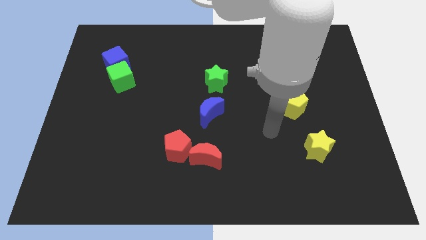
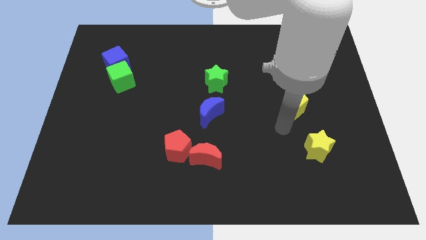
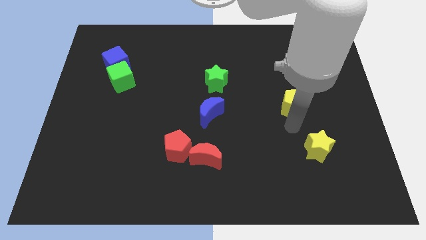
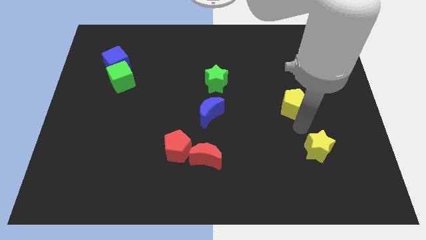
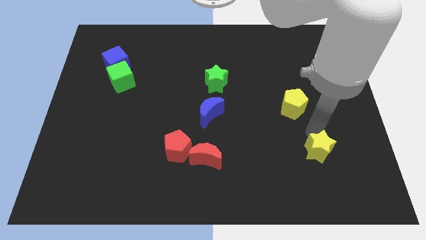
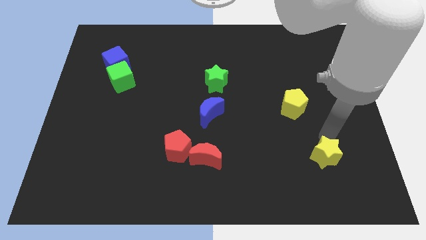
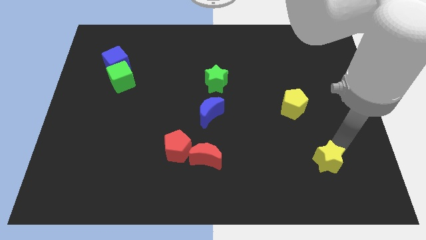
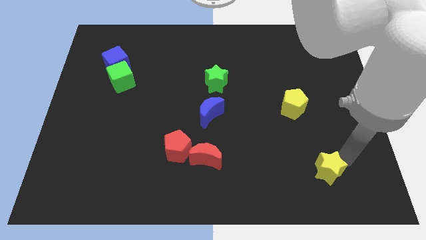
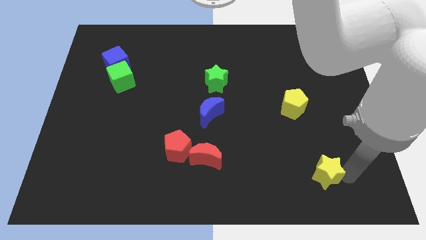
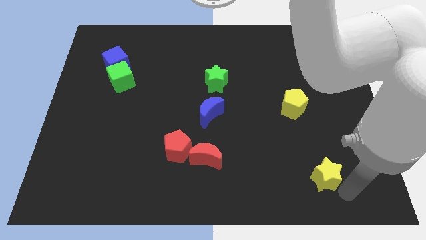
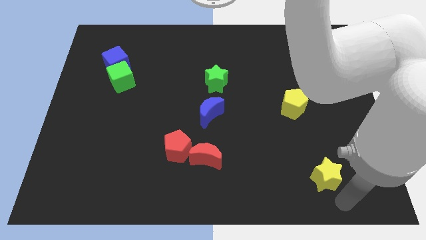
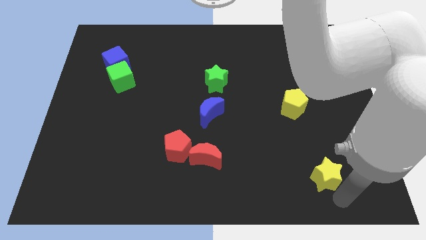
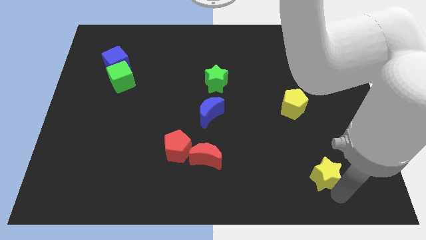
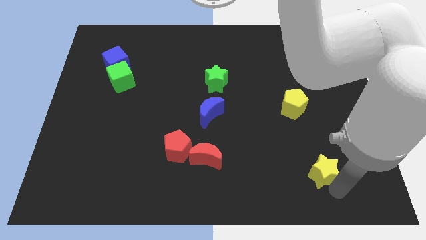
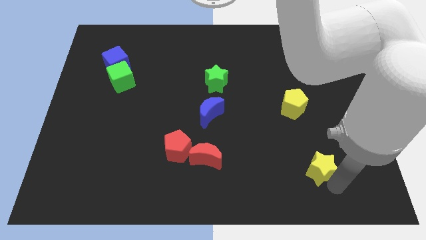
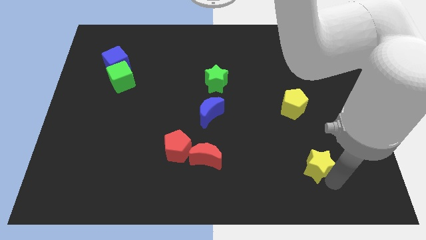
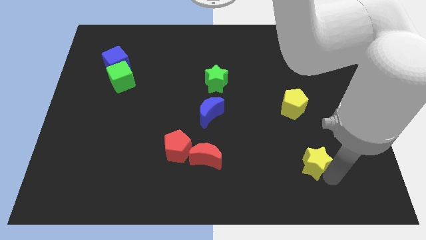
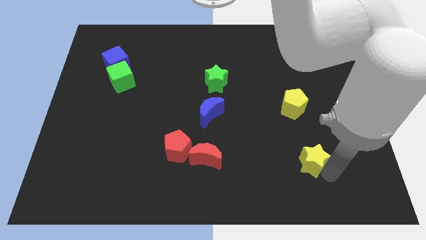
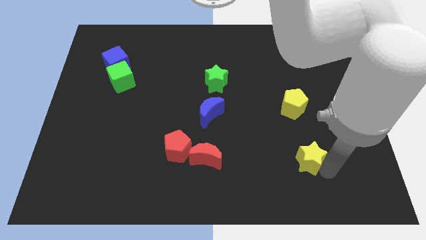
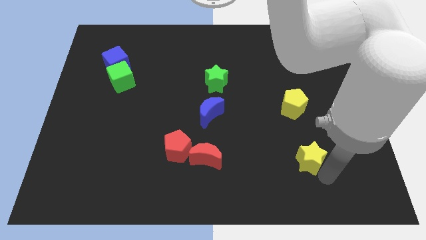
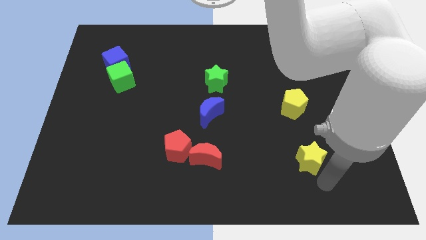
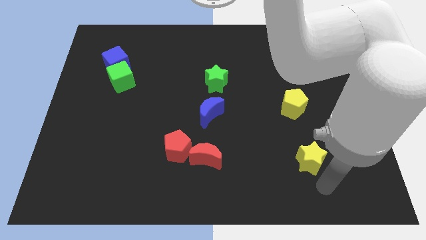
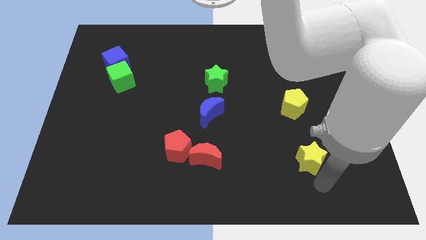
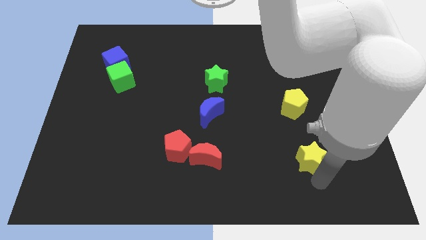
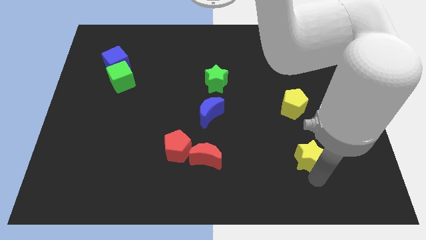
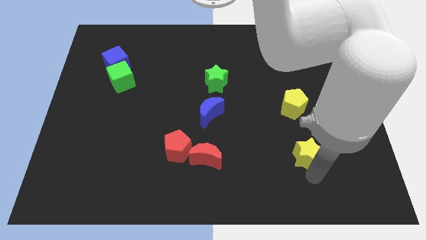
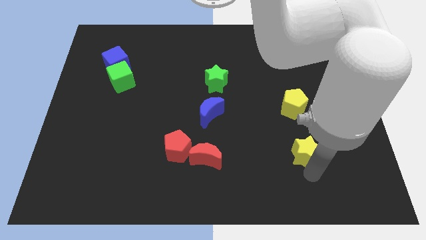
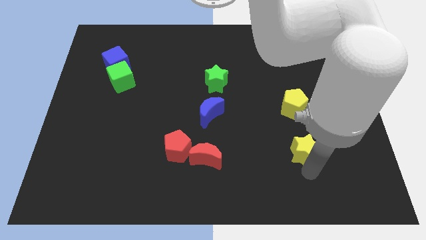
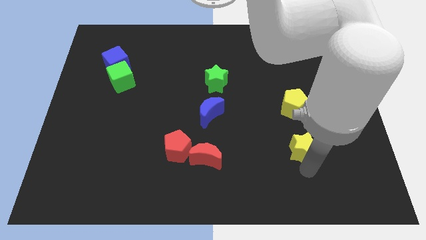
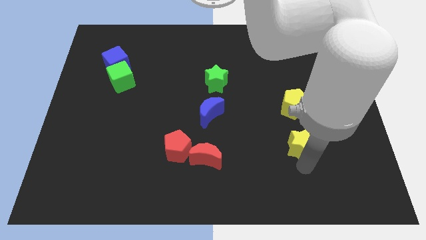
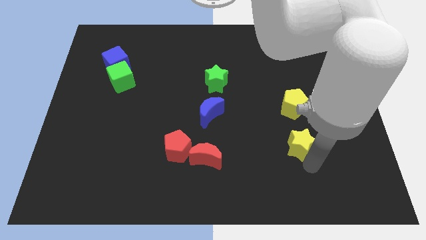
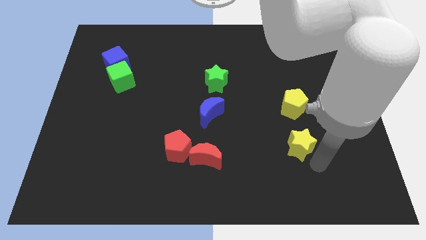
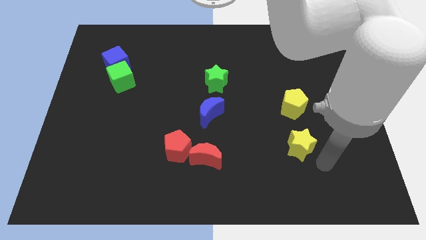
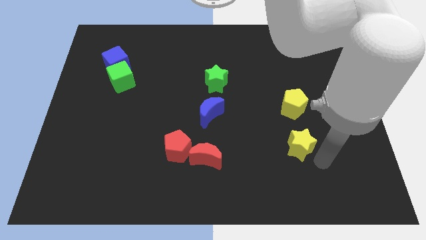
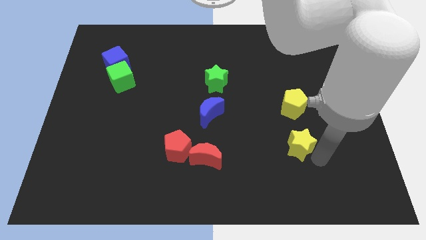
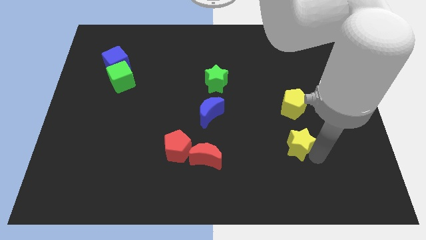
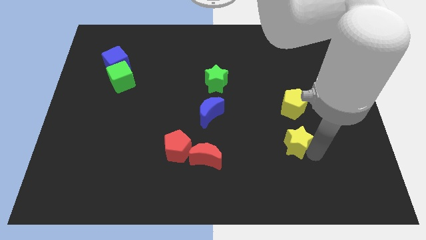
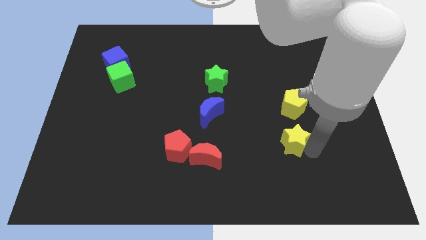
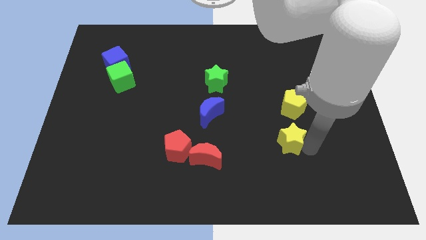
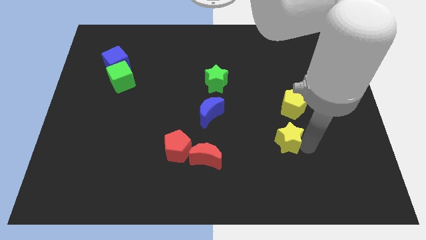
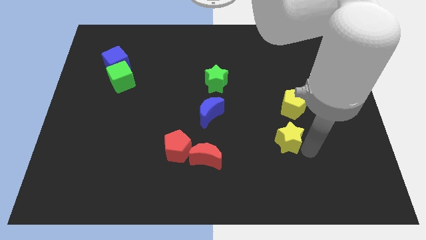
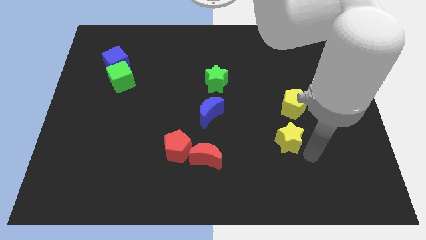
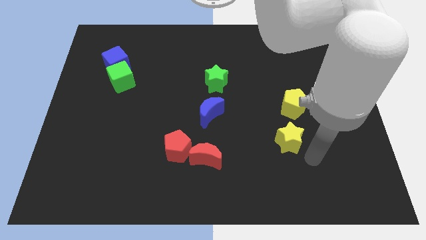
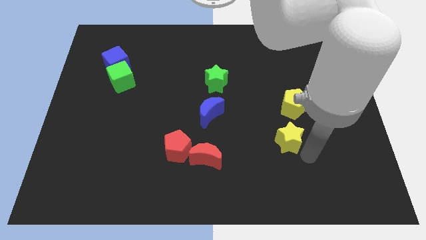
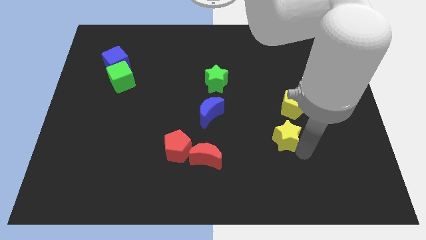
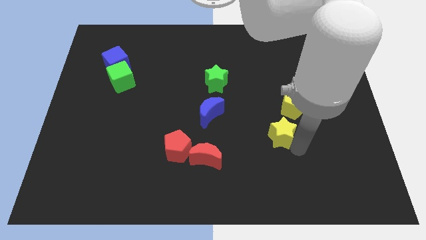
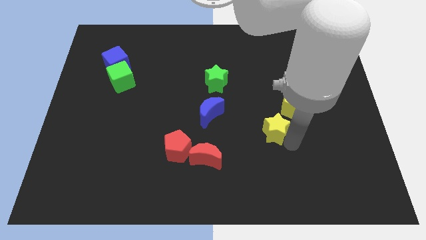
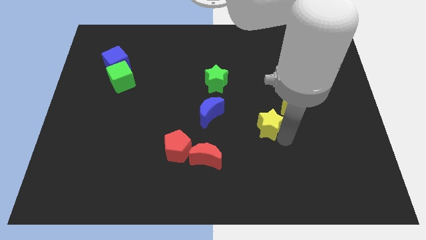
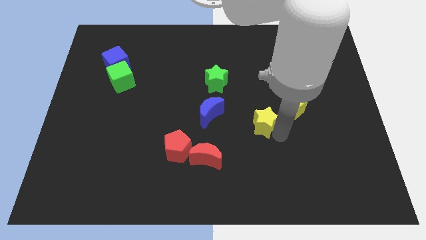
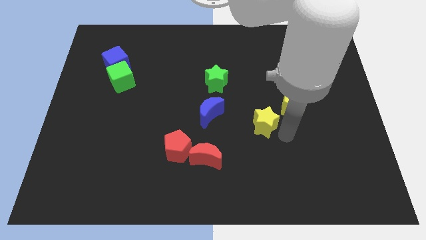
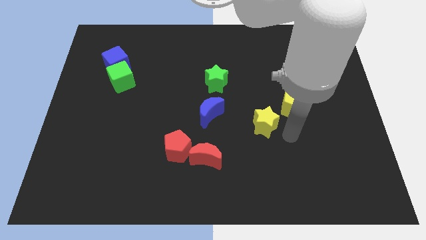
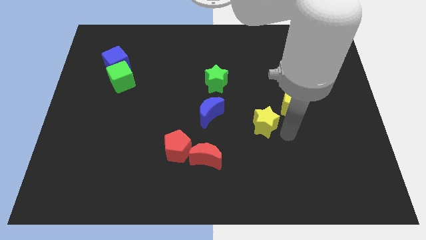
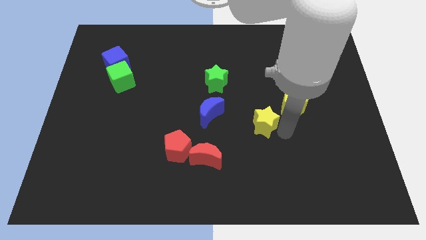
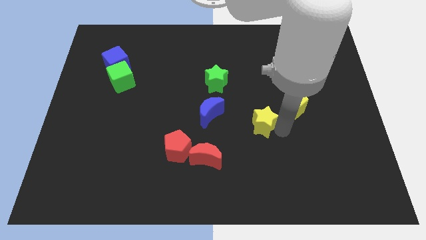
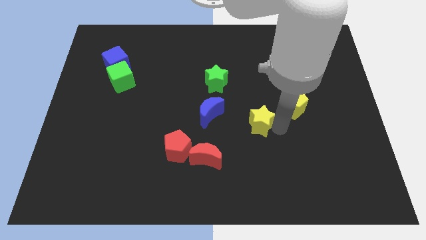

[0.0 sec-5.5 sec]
put the yellow star to the middle

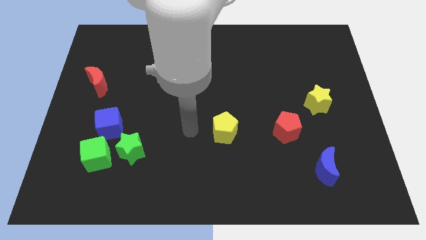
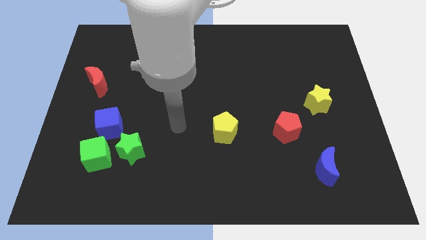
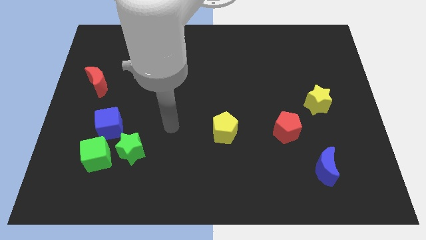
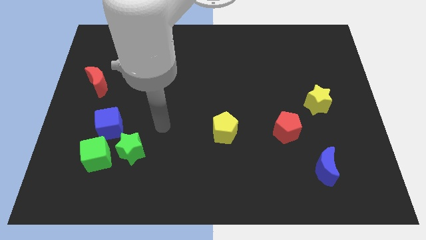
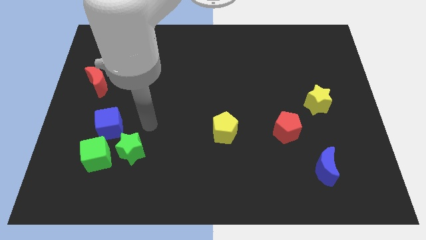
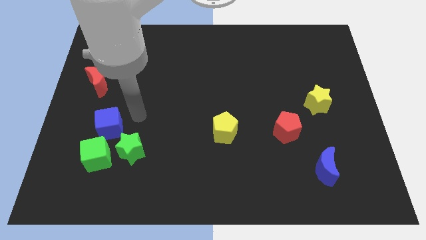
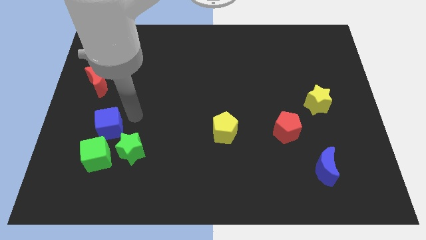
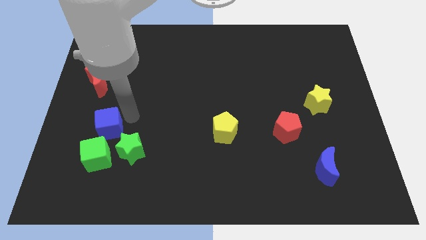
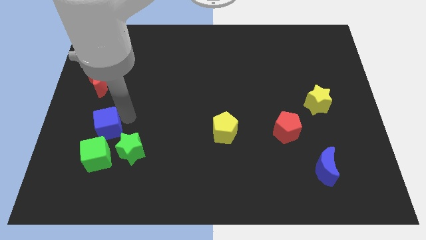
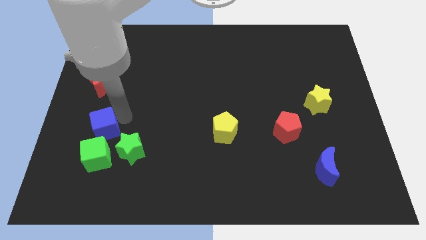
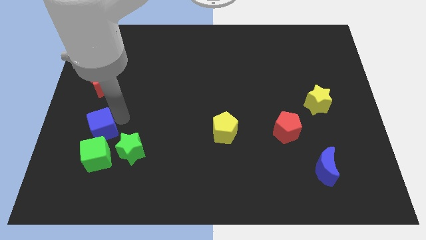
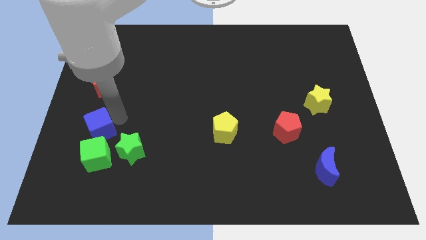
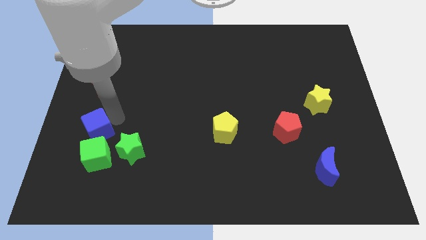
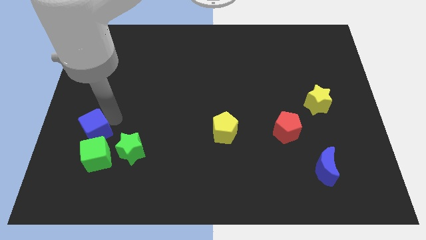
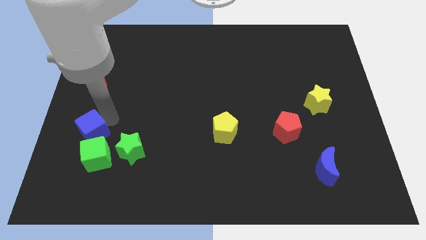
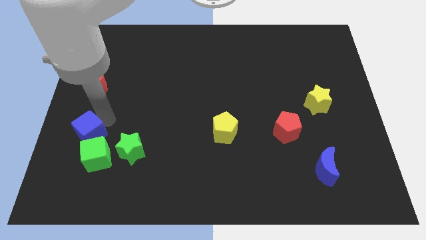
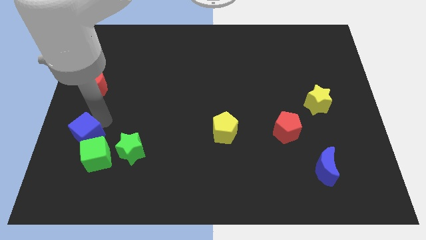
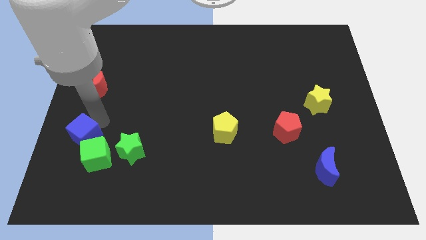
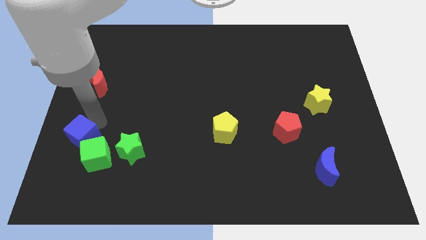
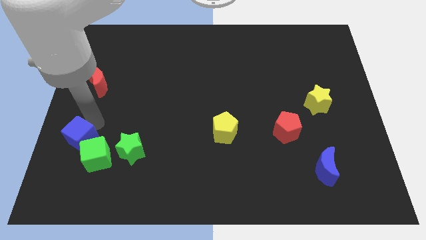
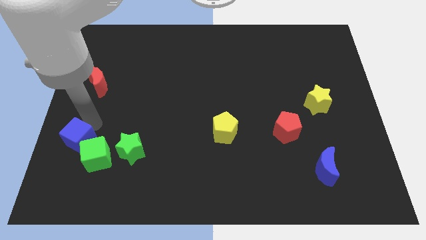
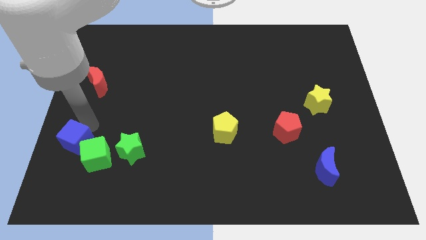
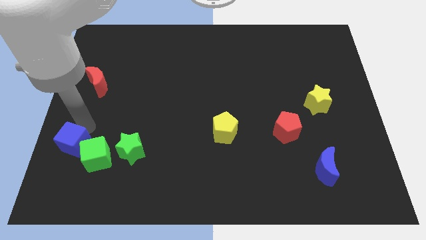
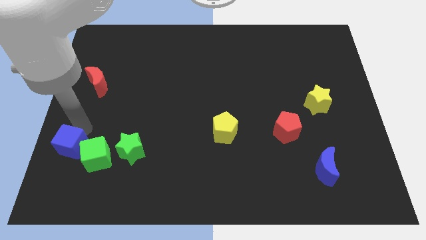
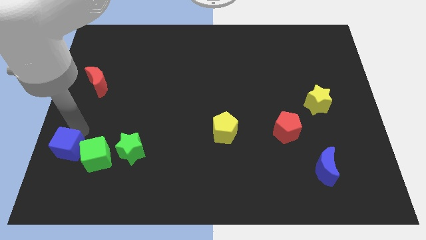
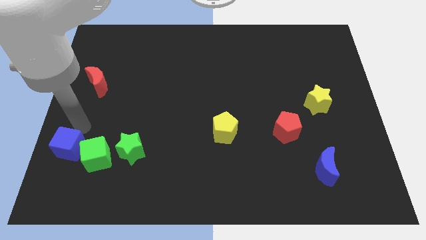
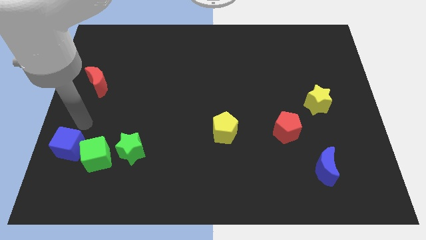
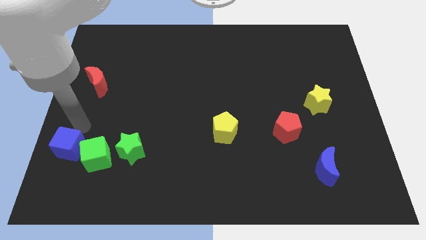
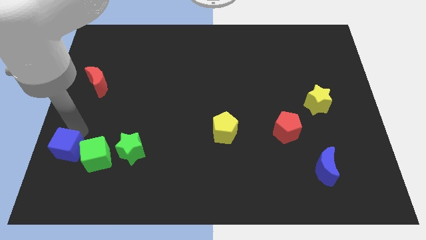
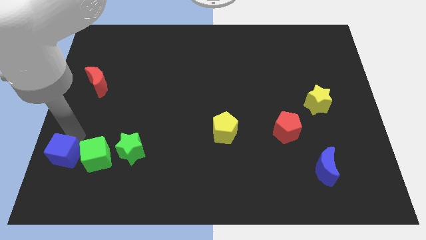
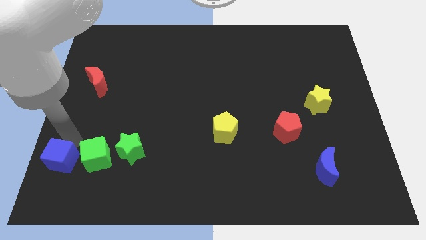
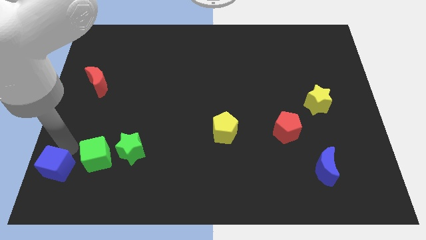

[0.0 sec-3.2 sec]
move the blue cube to the bottom left corner
